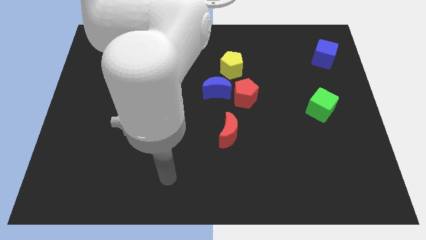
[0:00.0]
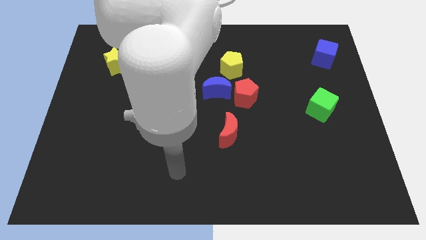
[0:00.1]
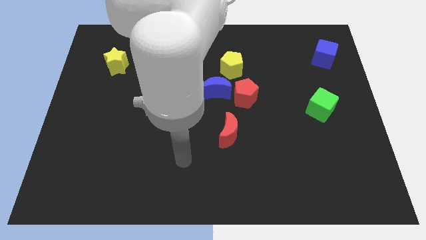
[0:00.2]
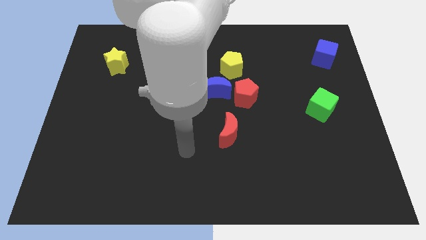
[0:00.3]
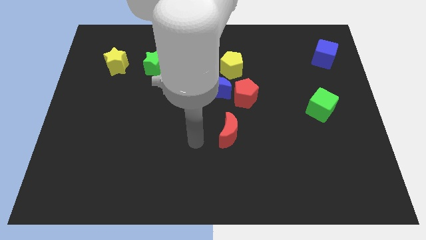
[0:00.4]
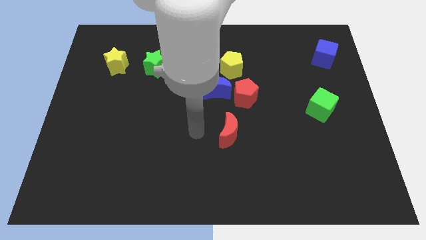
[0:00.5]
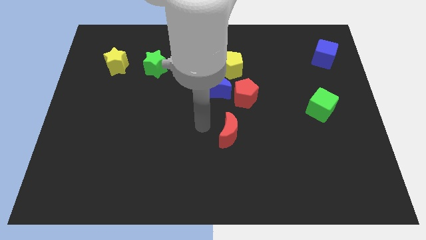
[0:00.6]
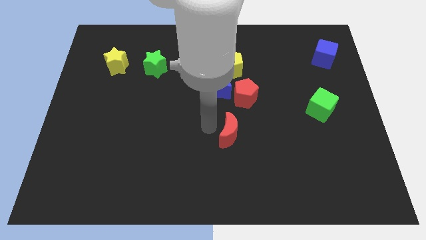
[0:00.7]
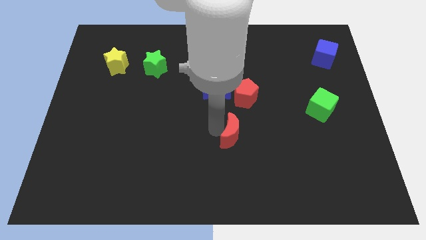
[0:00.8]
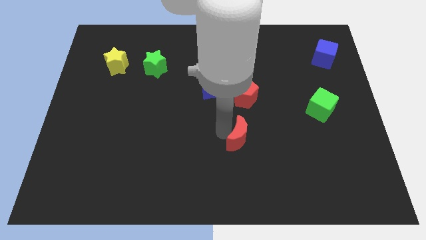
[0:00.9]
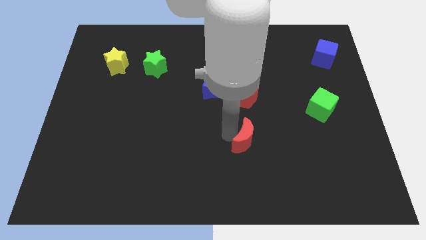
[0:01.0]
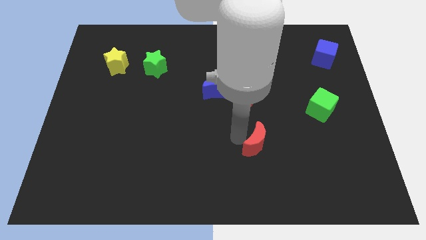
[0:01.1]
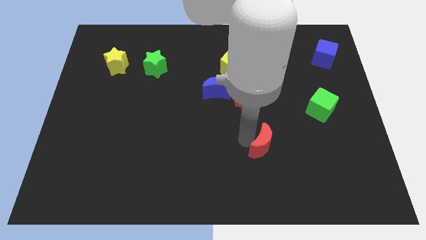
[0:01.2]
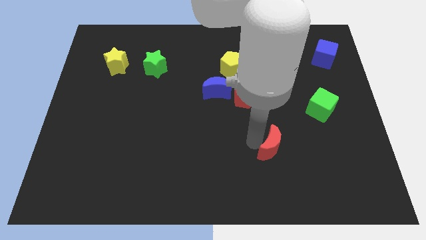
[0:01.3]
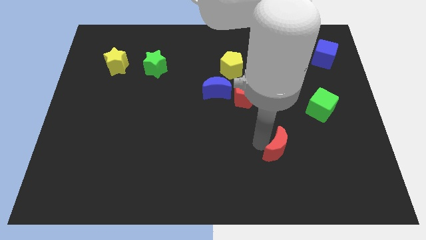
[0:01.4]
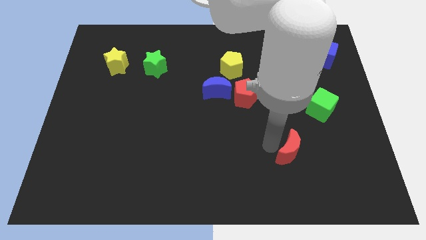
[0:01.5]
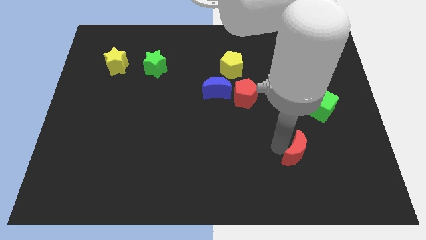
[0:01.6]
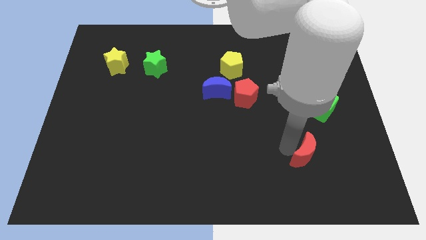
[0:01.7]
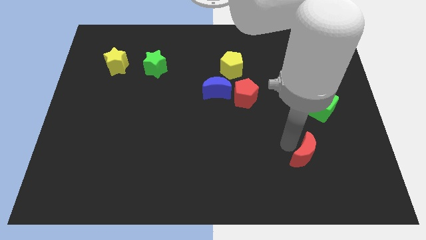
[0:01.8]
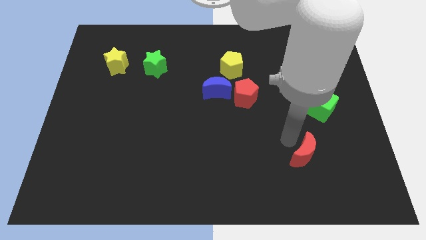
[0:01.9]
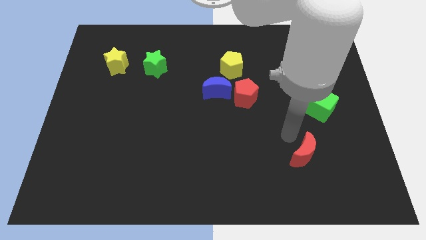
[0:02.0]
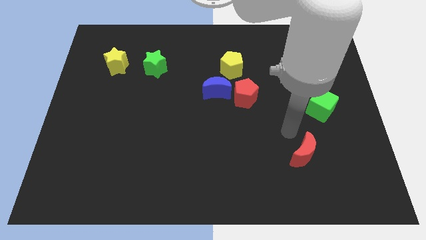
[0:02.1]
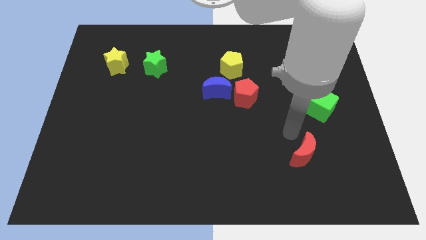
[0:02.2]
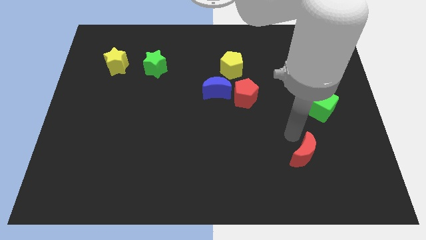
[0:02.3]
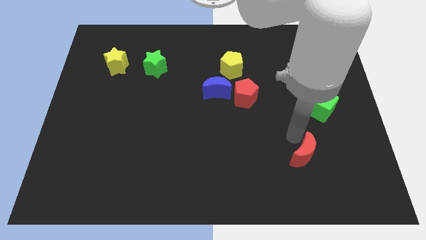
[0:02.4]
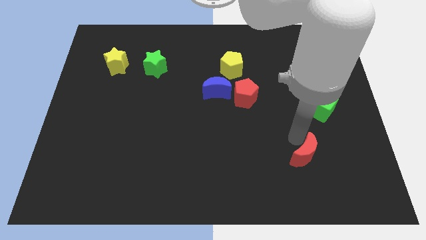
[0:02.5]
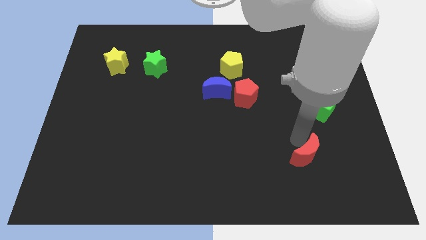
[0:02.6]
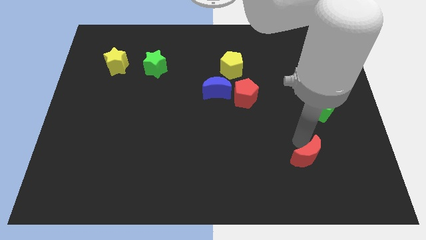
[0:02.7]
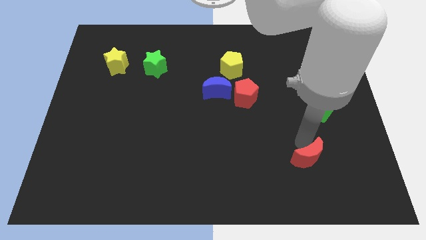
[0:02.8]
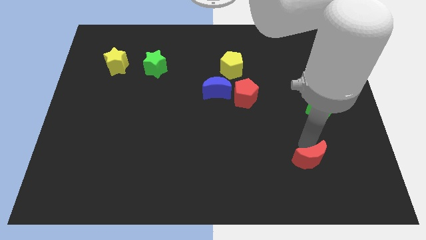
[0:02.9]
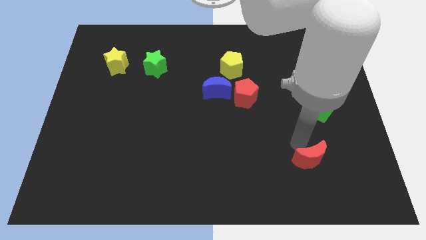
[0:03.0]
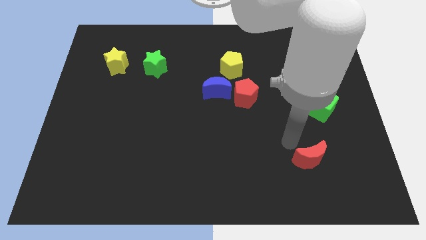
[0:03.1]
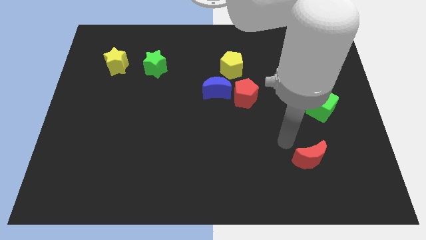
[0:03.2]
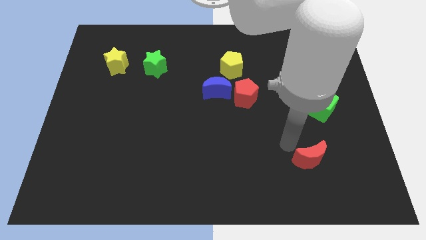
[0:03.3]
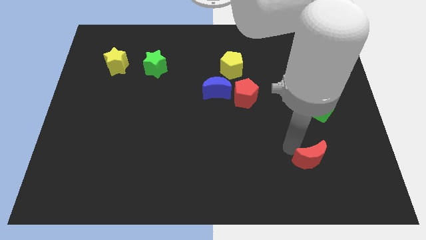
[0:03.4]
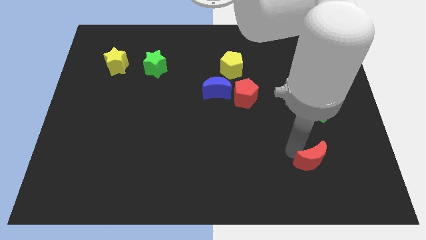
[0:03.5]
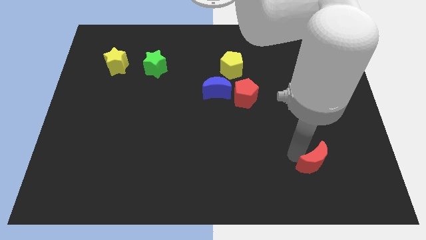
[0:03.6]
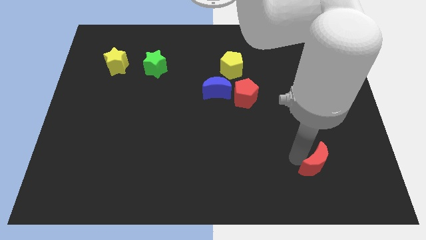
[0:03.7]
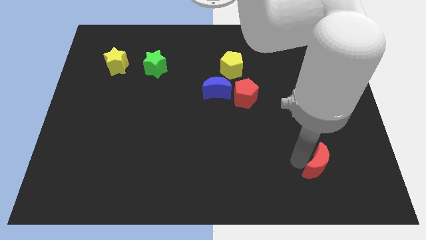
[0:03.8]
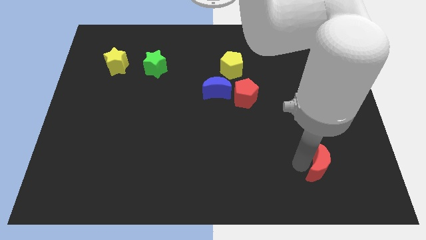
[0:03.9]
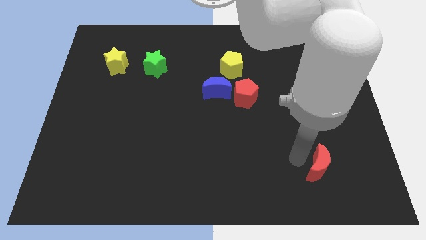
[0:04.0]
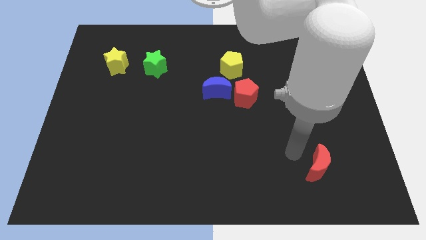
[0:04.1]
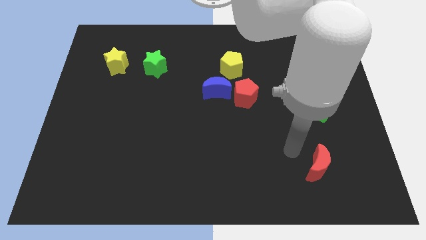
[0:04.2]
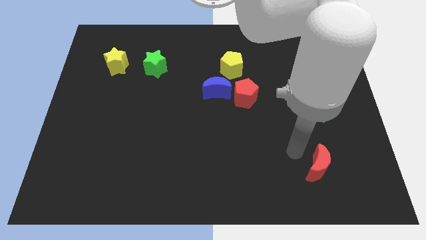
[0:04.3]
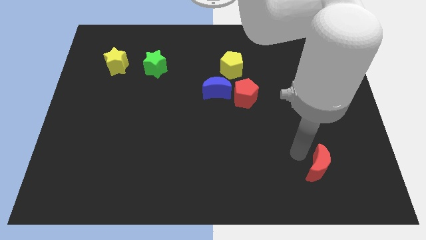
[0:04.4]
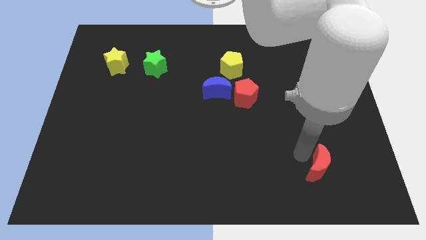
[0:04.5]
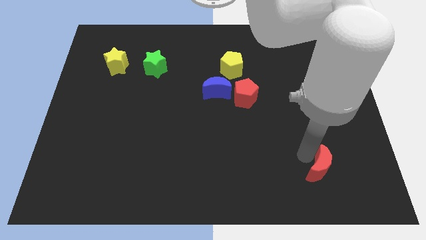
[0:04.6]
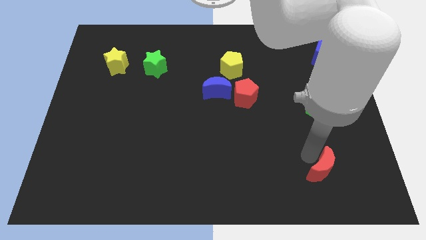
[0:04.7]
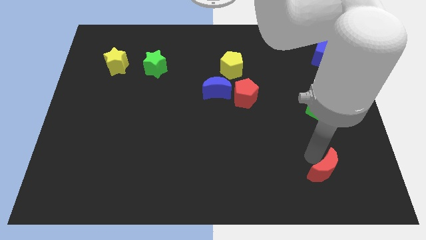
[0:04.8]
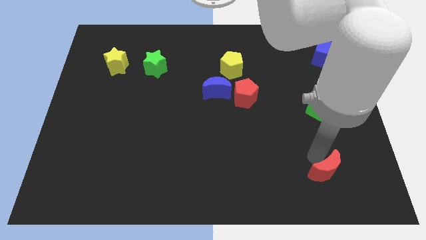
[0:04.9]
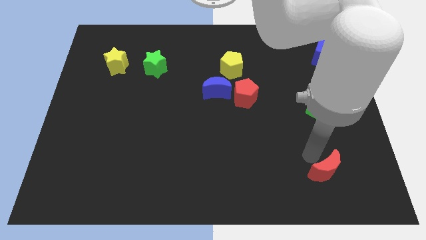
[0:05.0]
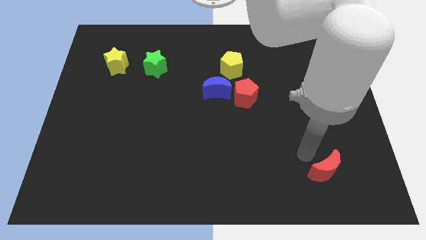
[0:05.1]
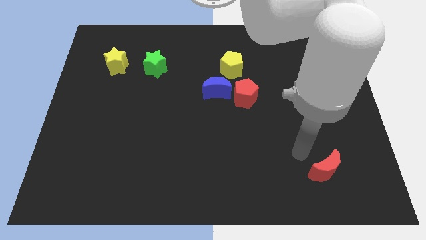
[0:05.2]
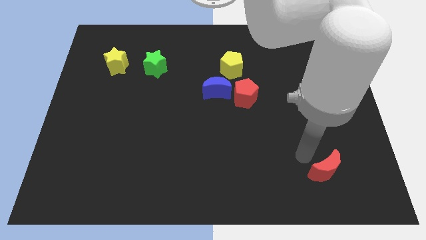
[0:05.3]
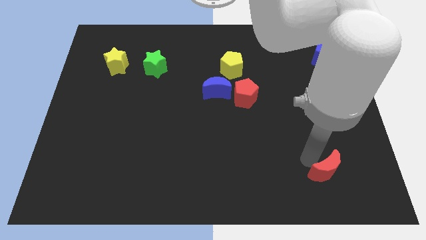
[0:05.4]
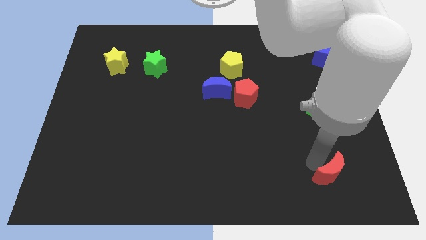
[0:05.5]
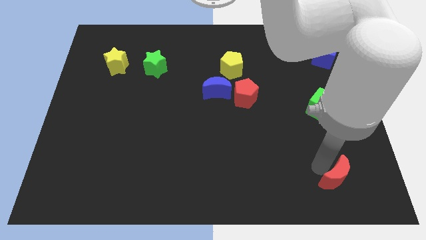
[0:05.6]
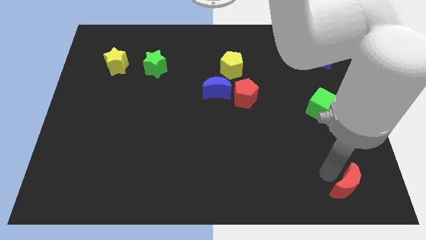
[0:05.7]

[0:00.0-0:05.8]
put the red moon to the bottom right corner
